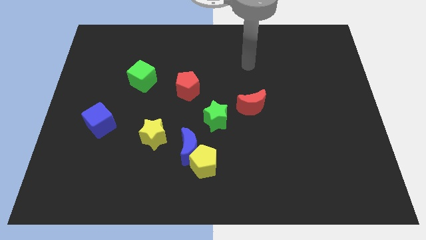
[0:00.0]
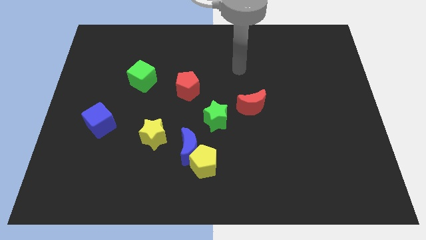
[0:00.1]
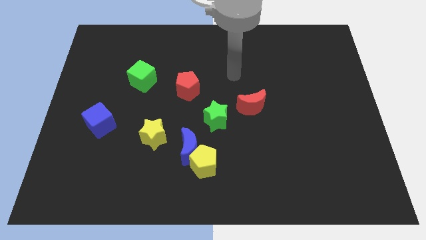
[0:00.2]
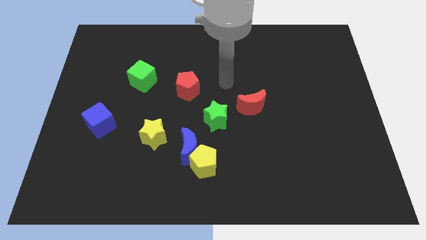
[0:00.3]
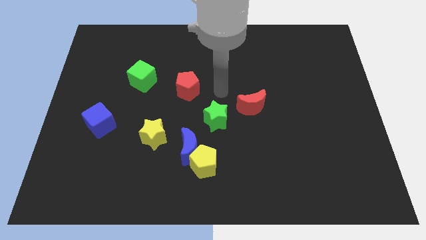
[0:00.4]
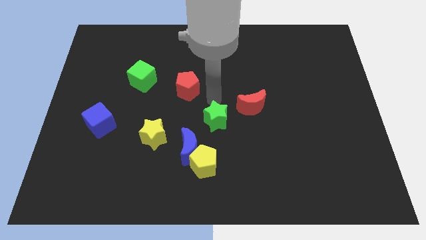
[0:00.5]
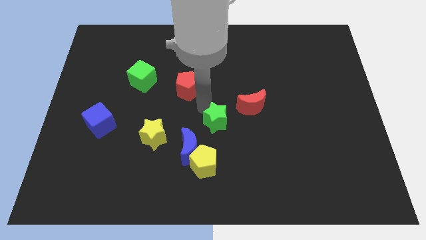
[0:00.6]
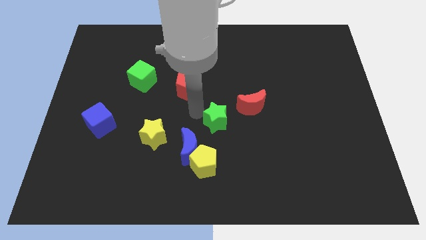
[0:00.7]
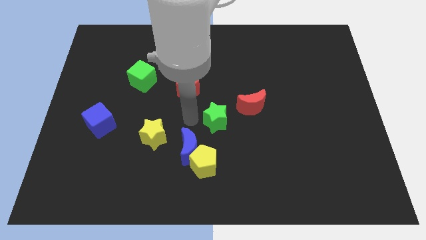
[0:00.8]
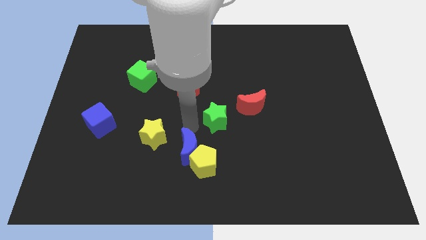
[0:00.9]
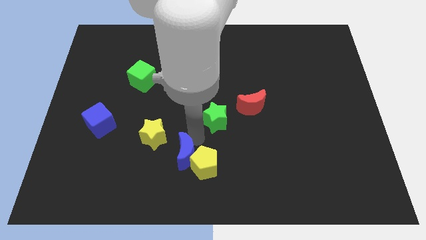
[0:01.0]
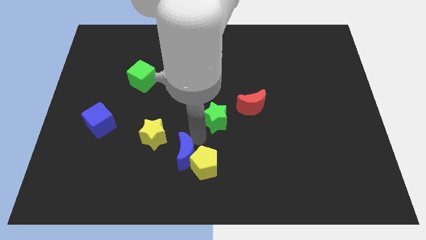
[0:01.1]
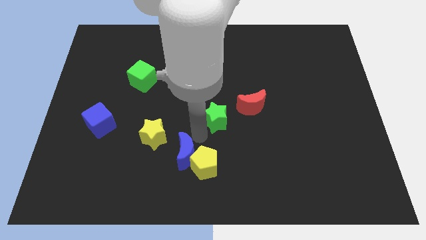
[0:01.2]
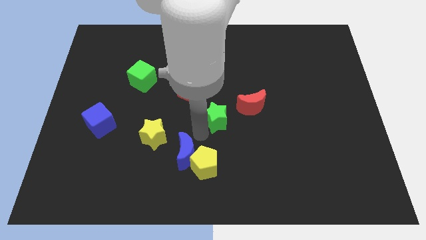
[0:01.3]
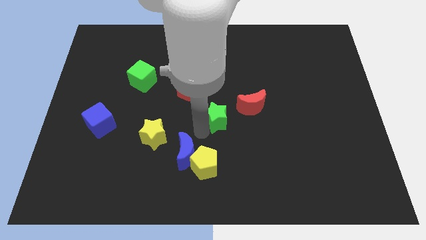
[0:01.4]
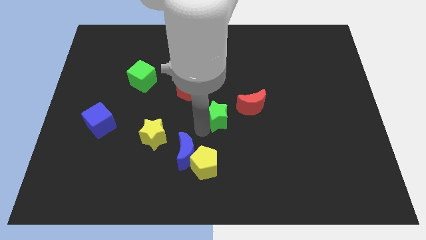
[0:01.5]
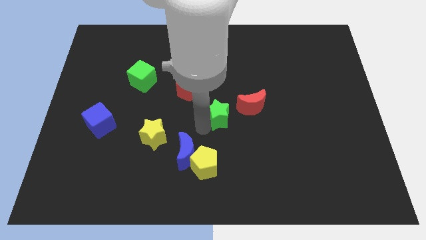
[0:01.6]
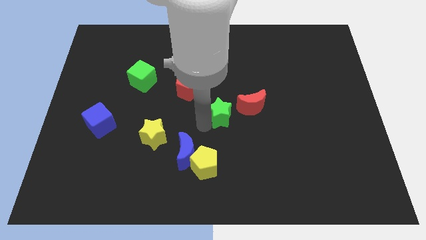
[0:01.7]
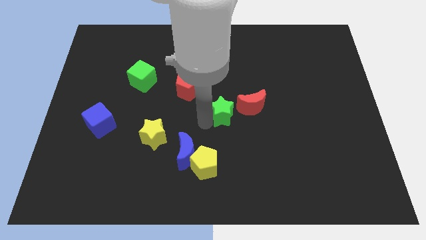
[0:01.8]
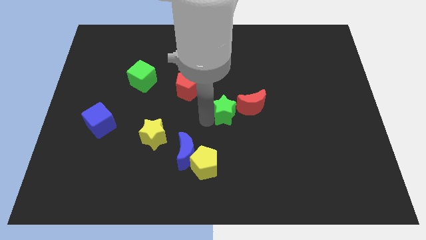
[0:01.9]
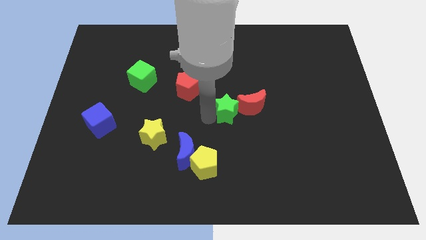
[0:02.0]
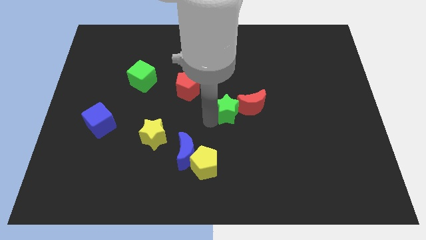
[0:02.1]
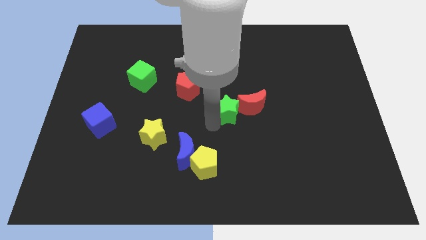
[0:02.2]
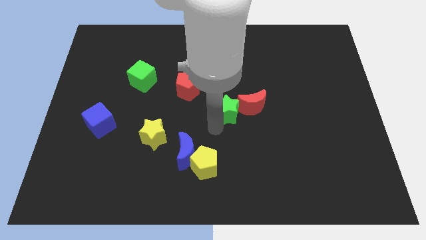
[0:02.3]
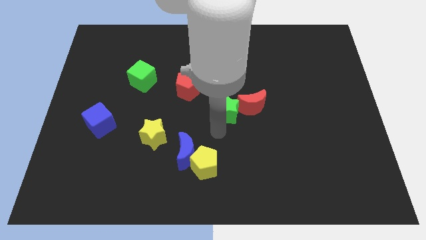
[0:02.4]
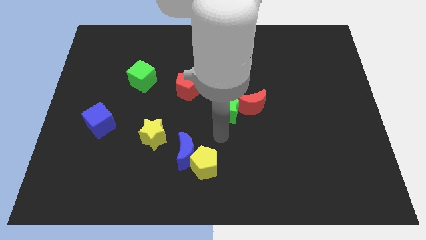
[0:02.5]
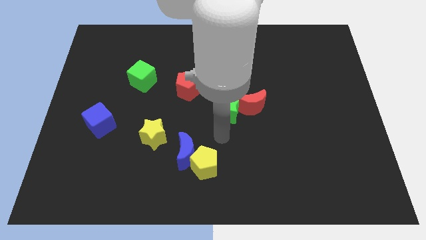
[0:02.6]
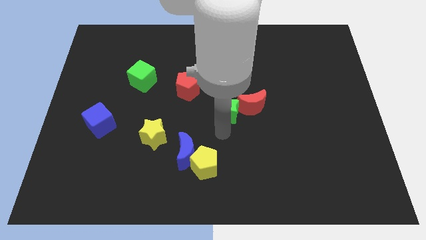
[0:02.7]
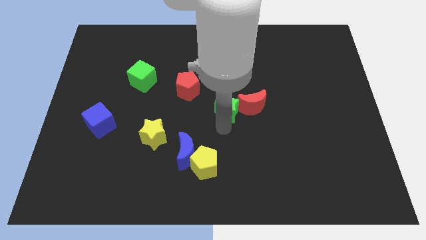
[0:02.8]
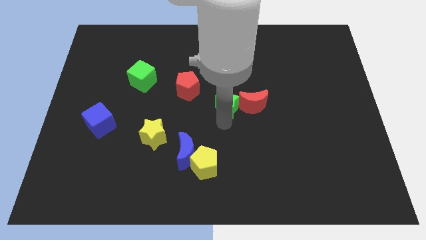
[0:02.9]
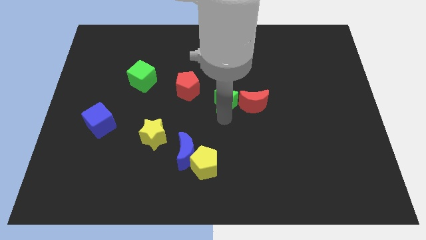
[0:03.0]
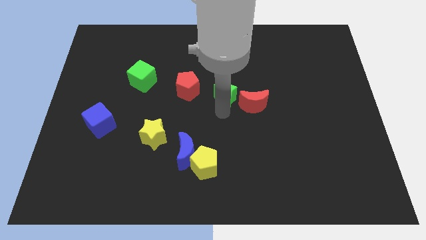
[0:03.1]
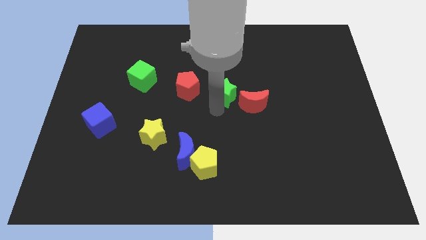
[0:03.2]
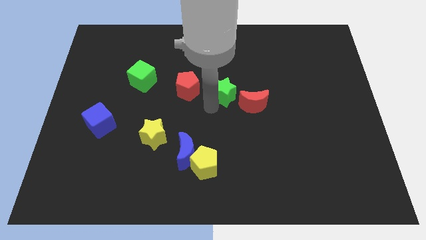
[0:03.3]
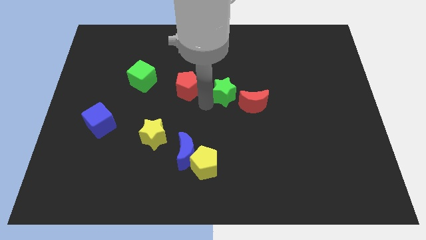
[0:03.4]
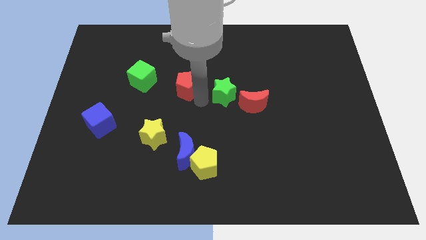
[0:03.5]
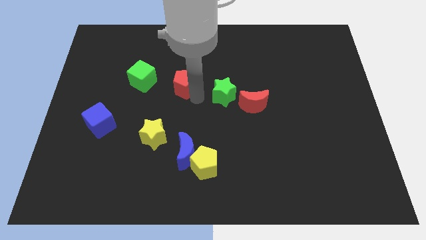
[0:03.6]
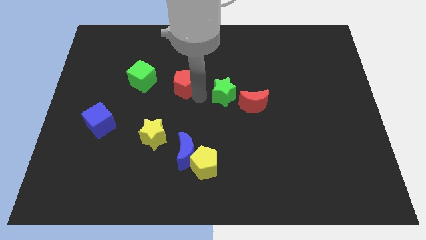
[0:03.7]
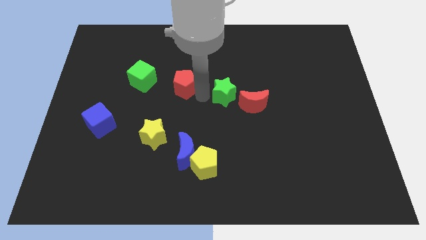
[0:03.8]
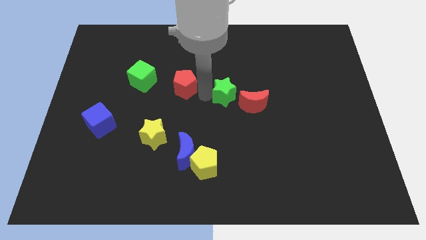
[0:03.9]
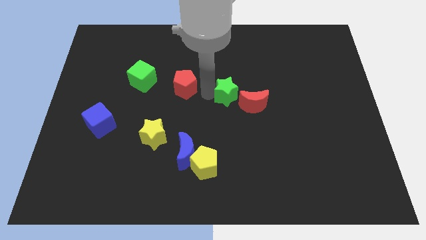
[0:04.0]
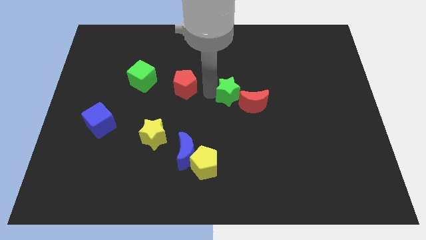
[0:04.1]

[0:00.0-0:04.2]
slightly move the green star up and to the right diagonally

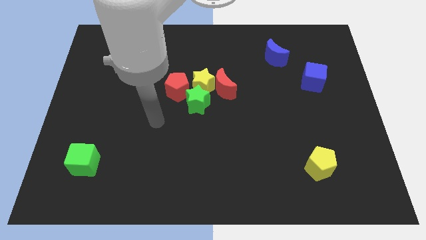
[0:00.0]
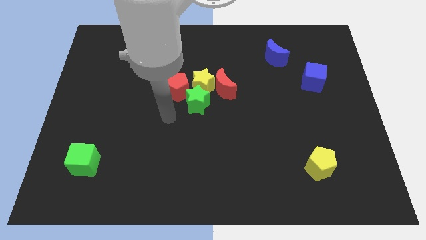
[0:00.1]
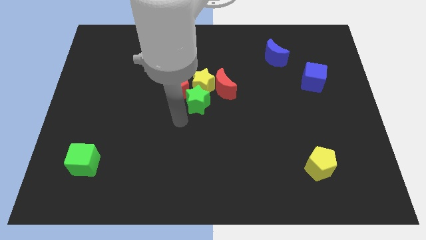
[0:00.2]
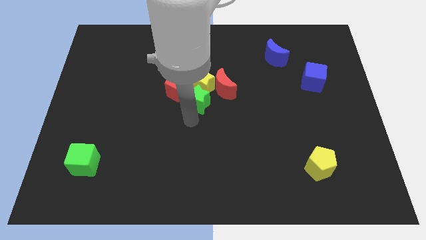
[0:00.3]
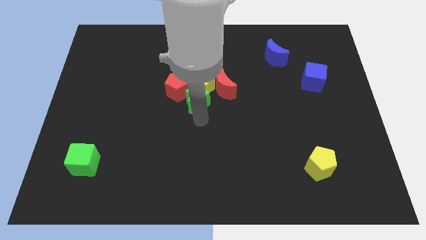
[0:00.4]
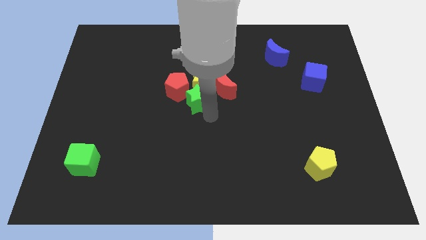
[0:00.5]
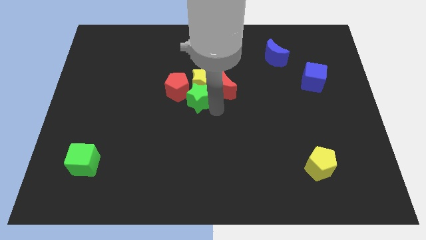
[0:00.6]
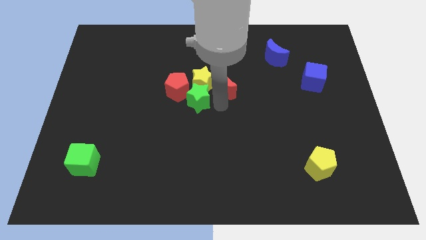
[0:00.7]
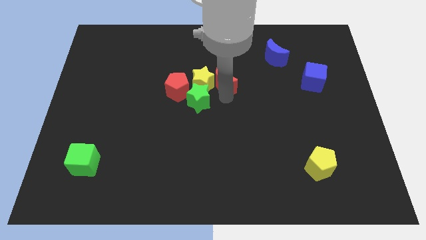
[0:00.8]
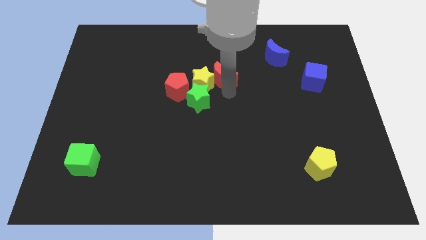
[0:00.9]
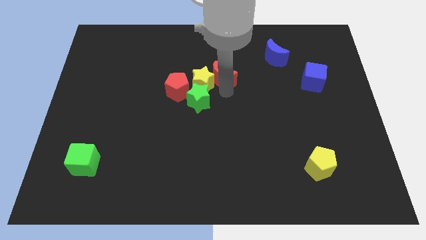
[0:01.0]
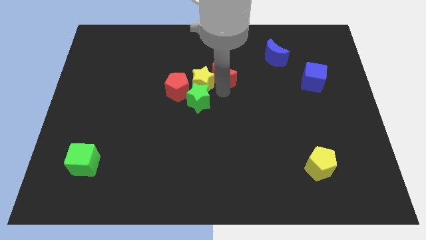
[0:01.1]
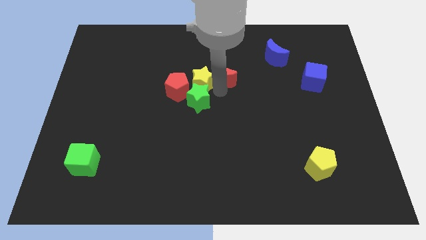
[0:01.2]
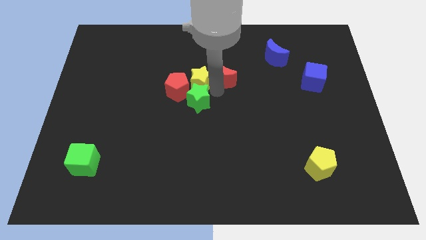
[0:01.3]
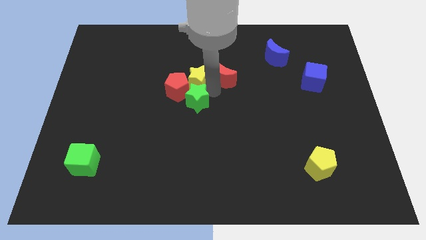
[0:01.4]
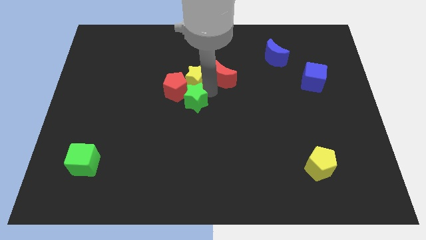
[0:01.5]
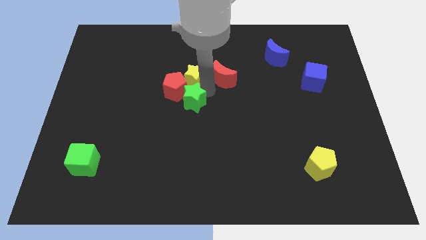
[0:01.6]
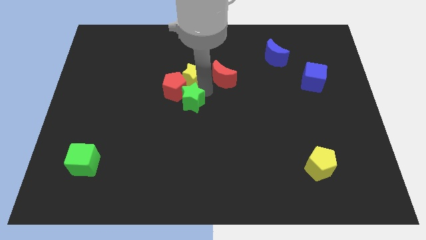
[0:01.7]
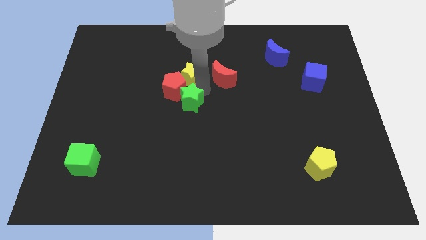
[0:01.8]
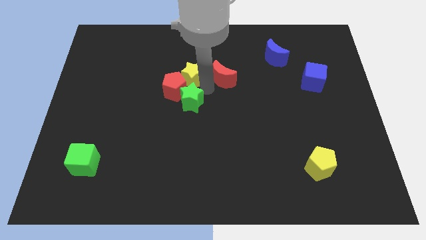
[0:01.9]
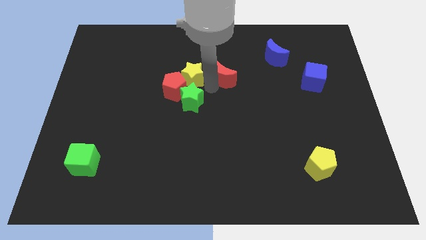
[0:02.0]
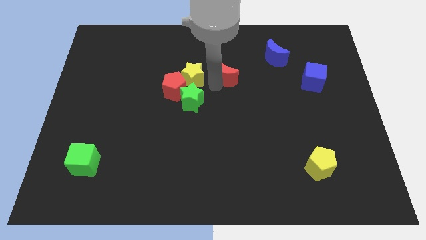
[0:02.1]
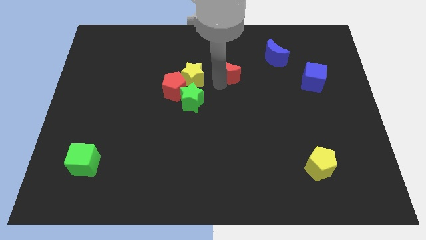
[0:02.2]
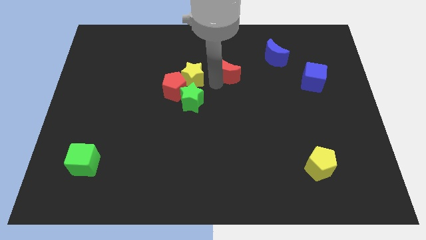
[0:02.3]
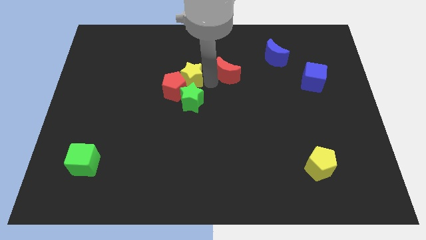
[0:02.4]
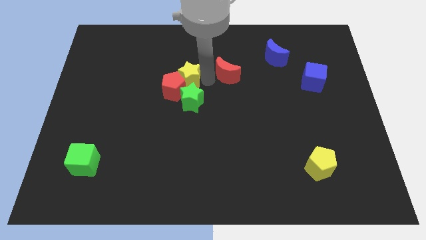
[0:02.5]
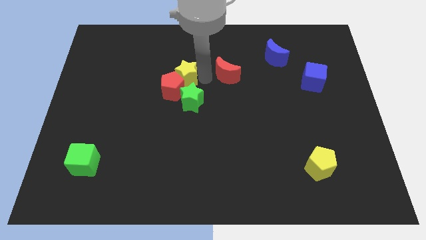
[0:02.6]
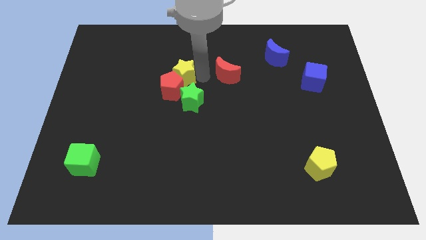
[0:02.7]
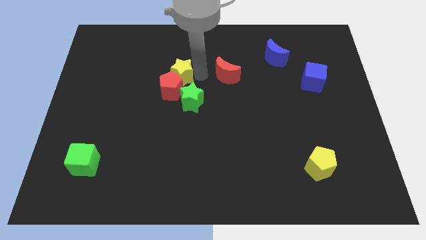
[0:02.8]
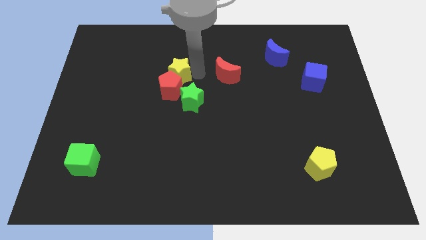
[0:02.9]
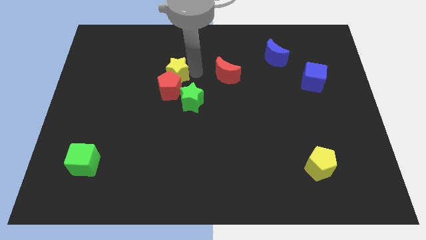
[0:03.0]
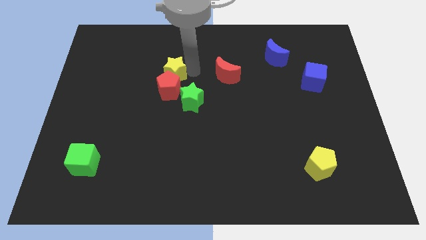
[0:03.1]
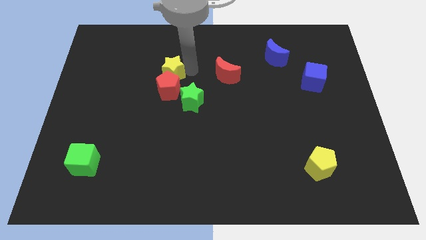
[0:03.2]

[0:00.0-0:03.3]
push the yellow star slightly to the left

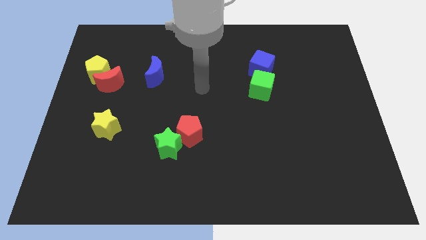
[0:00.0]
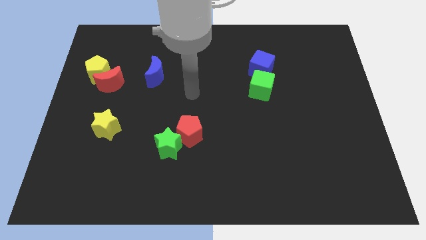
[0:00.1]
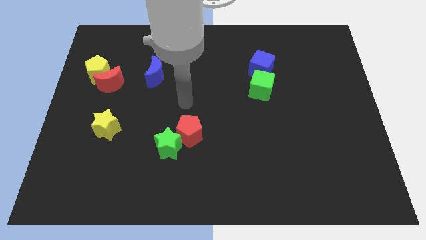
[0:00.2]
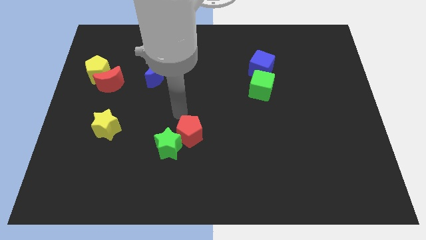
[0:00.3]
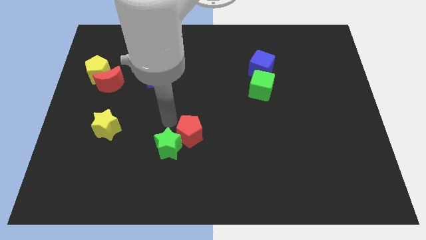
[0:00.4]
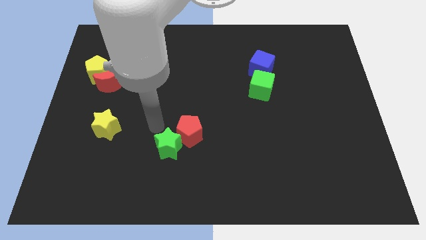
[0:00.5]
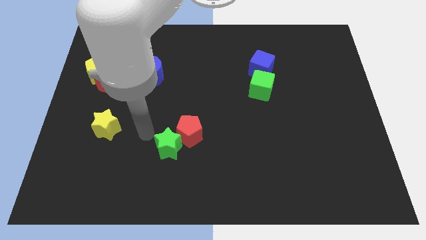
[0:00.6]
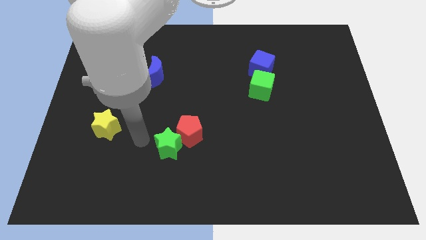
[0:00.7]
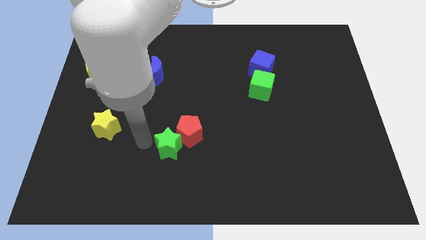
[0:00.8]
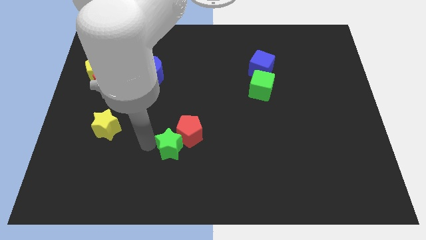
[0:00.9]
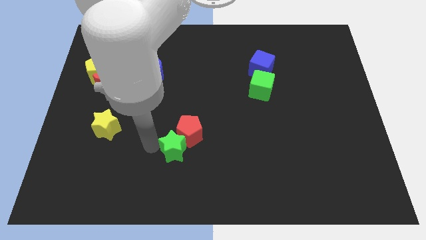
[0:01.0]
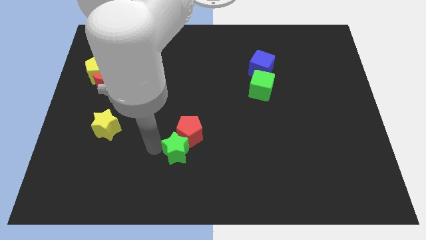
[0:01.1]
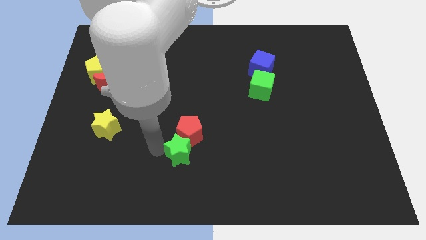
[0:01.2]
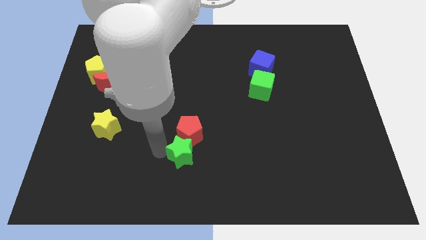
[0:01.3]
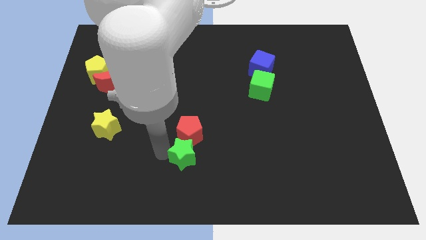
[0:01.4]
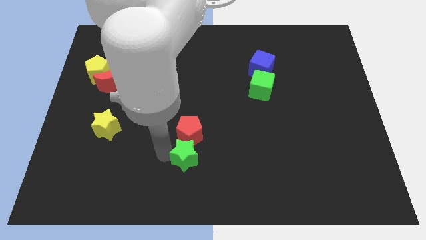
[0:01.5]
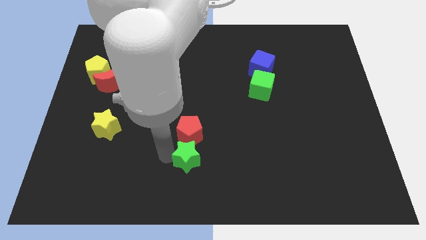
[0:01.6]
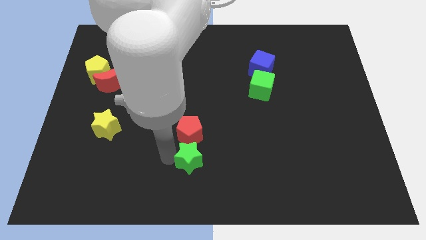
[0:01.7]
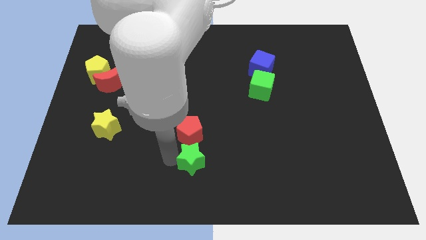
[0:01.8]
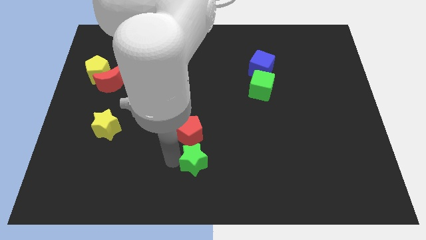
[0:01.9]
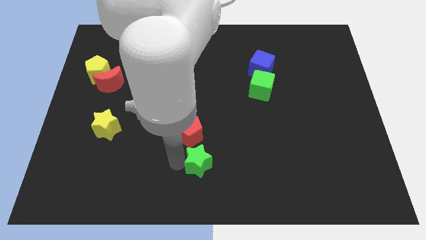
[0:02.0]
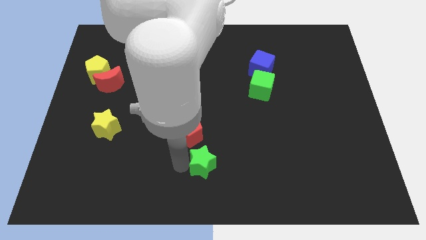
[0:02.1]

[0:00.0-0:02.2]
slide the green star somewhat right
